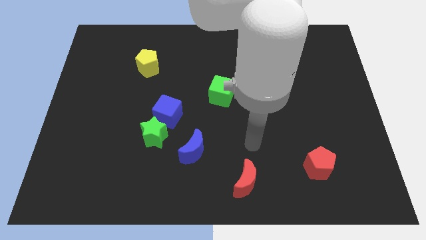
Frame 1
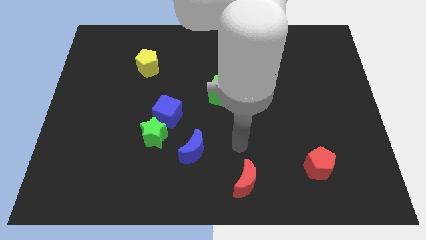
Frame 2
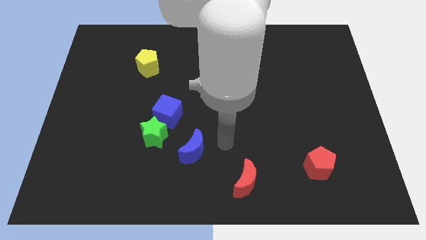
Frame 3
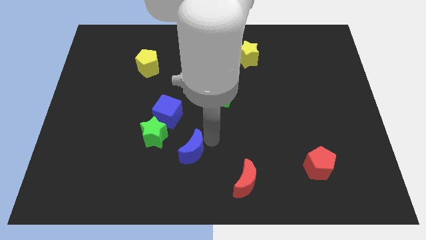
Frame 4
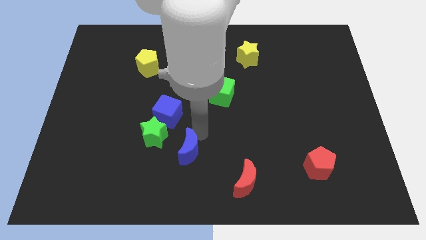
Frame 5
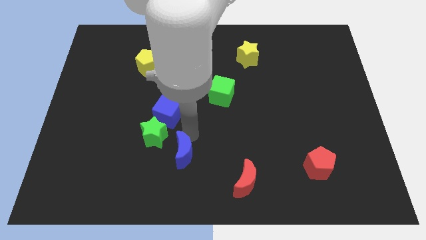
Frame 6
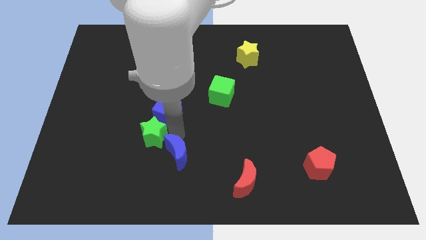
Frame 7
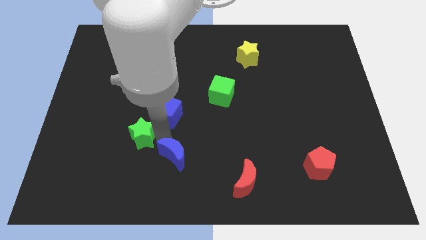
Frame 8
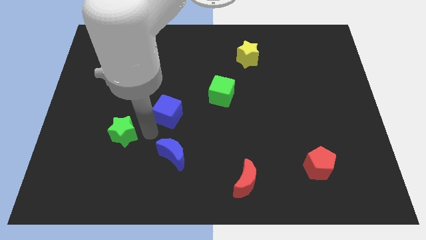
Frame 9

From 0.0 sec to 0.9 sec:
separate the blue cube from the green star

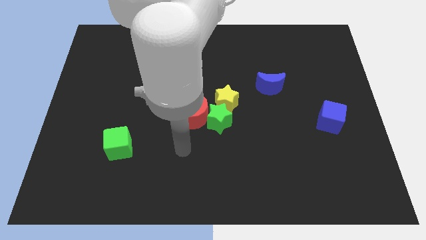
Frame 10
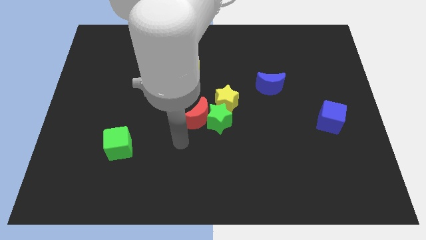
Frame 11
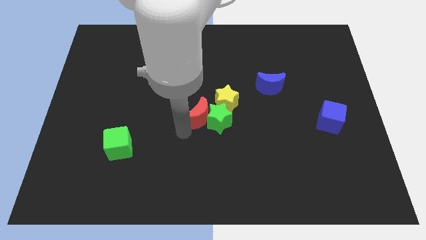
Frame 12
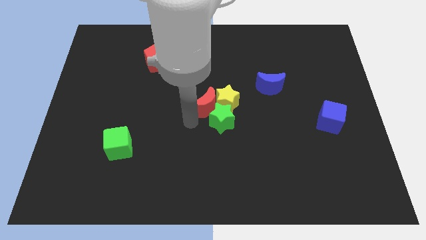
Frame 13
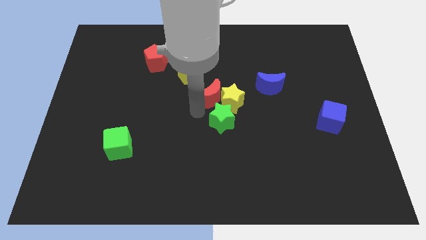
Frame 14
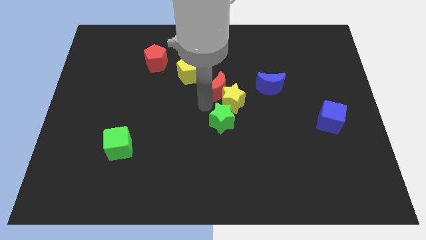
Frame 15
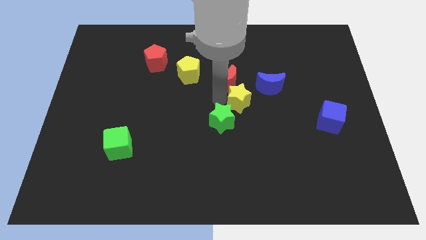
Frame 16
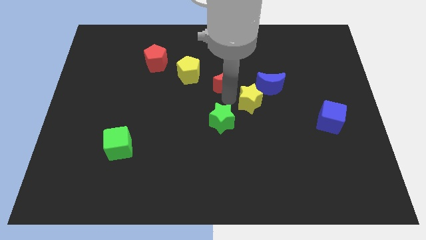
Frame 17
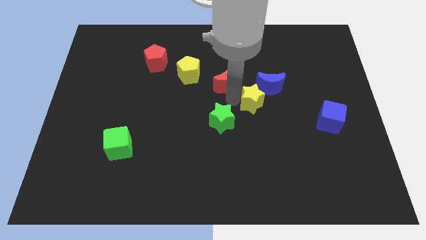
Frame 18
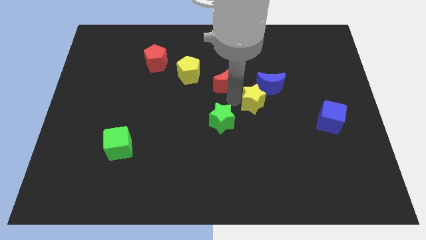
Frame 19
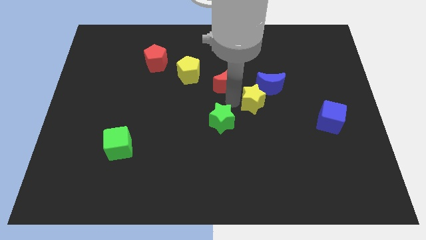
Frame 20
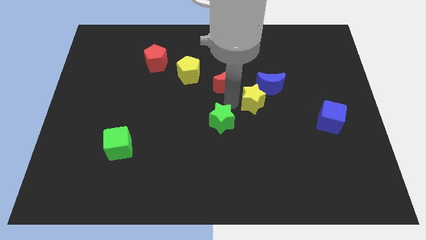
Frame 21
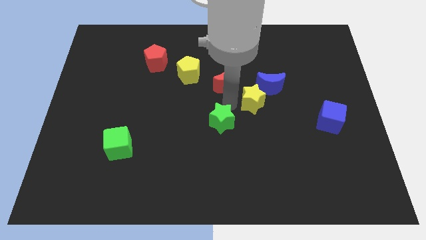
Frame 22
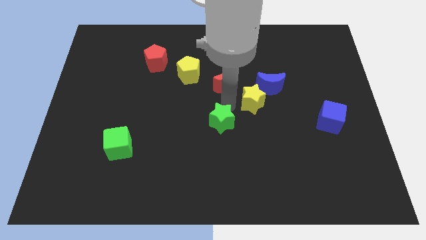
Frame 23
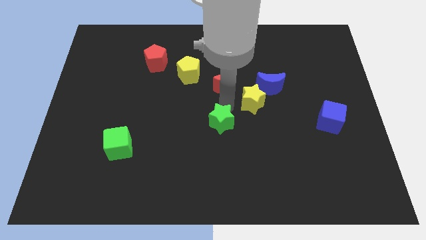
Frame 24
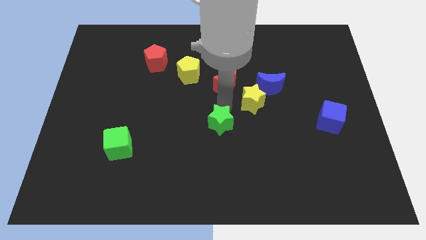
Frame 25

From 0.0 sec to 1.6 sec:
separate the green star from the red moon and yellow star

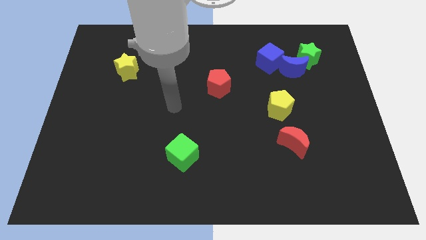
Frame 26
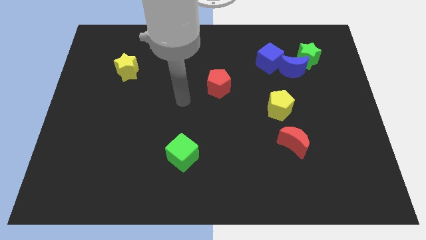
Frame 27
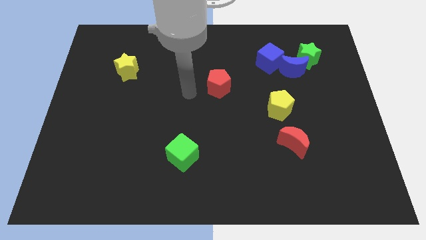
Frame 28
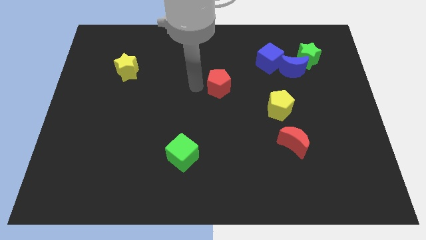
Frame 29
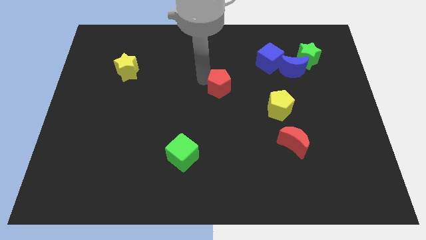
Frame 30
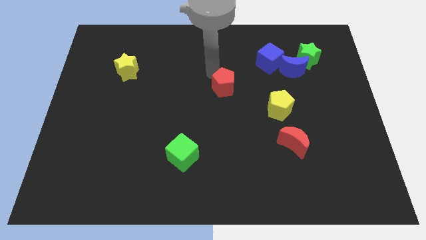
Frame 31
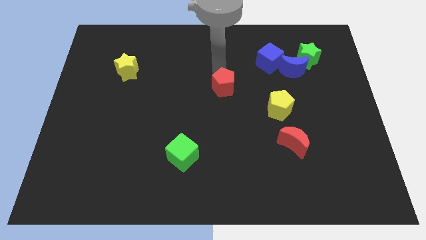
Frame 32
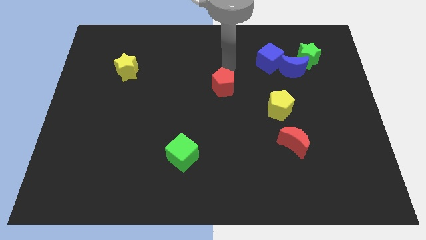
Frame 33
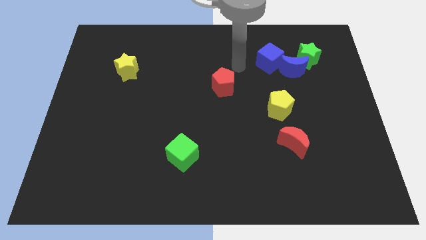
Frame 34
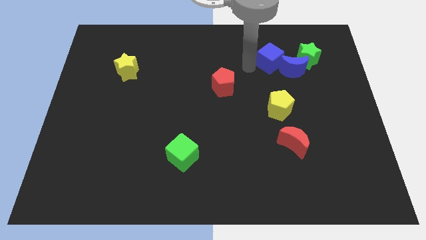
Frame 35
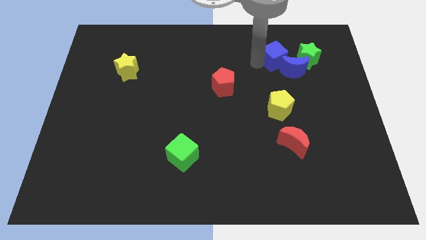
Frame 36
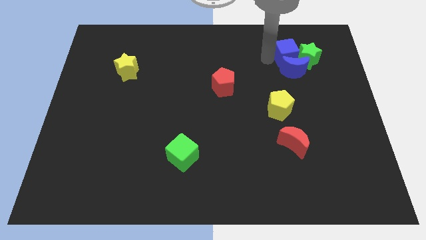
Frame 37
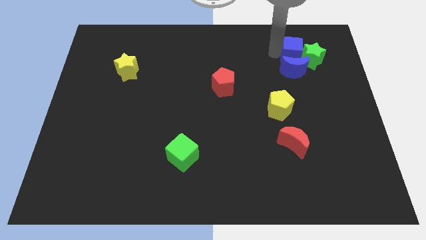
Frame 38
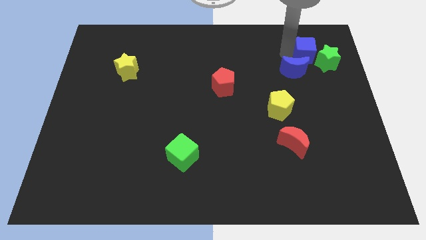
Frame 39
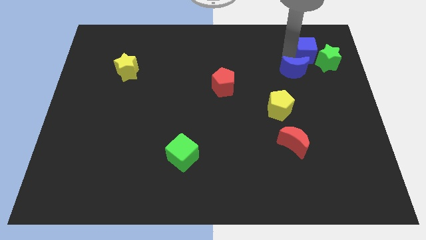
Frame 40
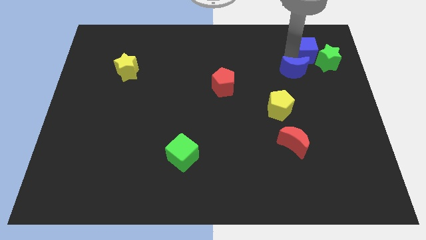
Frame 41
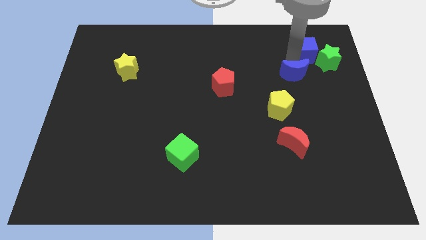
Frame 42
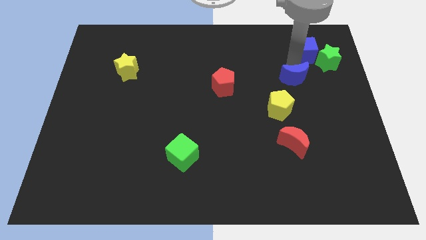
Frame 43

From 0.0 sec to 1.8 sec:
move the blue moon away from the green star and blue cube

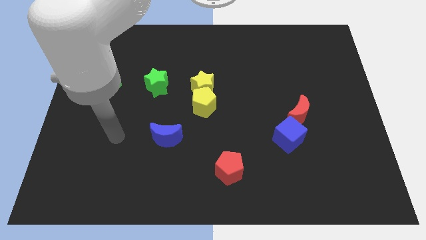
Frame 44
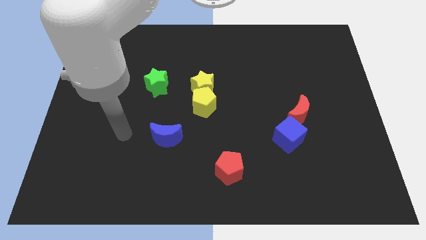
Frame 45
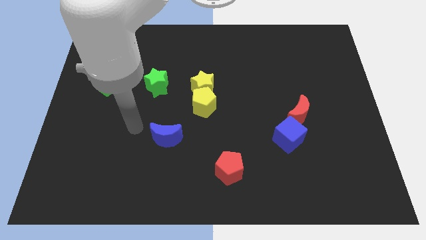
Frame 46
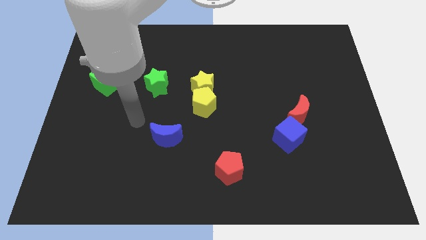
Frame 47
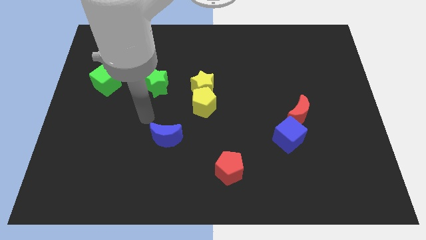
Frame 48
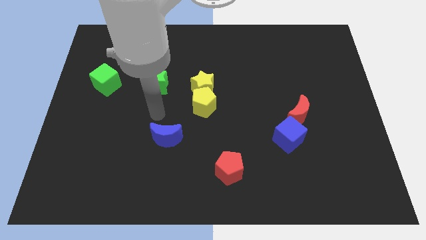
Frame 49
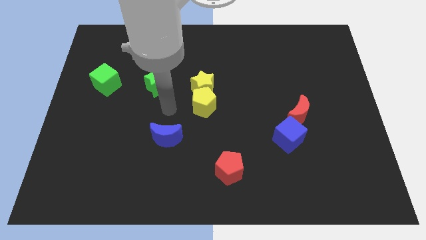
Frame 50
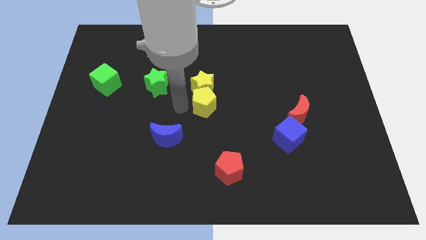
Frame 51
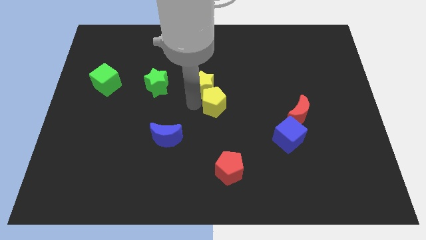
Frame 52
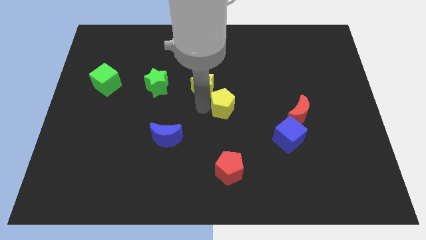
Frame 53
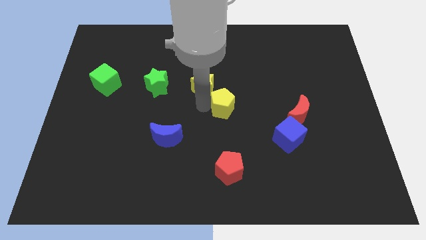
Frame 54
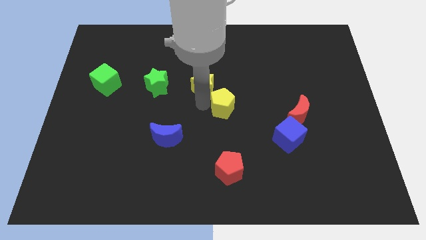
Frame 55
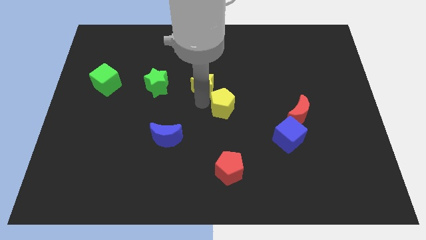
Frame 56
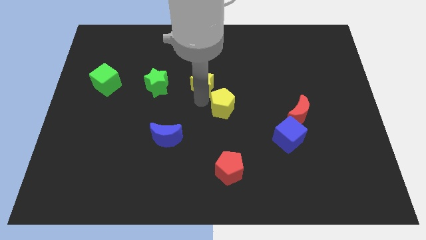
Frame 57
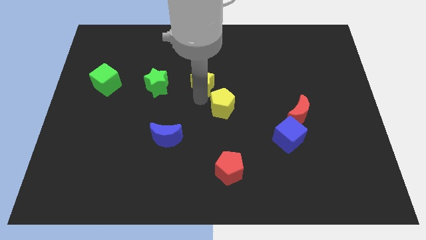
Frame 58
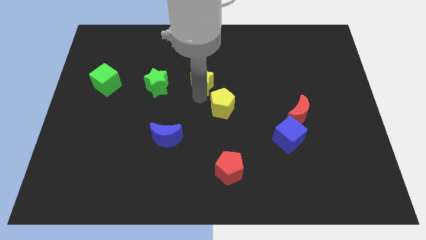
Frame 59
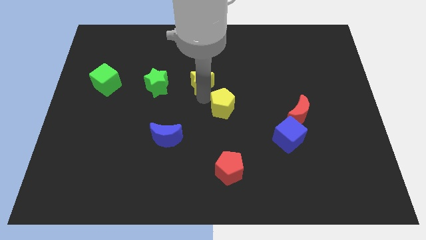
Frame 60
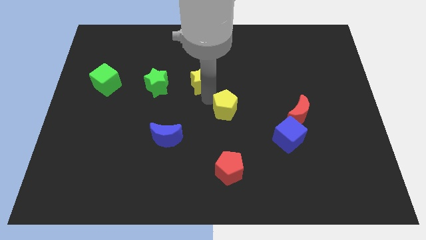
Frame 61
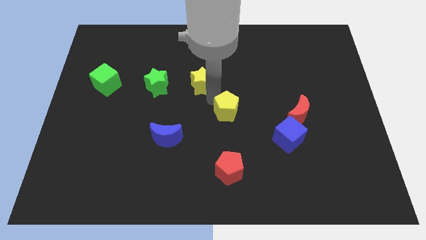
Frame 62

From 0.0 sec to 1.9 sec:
move the yellow star away from the yellow pentagon

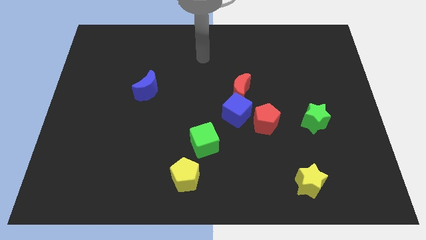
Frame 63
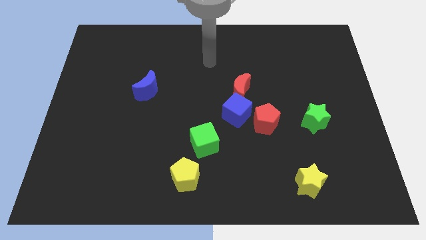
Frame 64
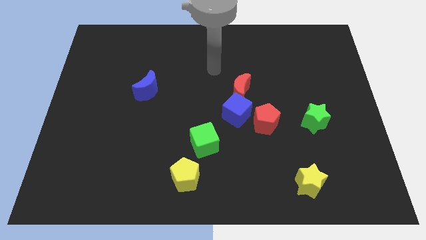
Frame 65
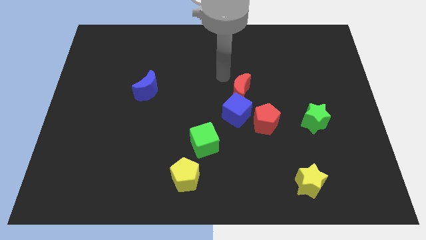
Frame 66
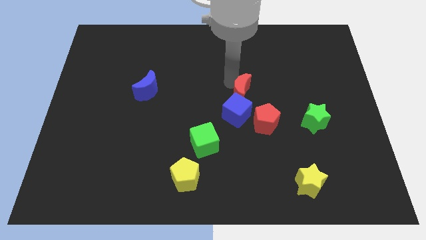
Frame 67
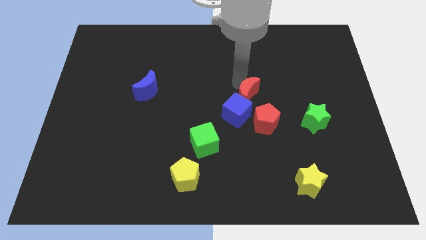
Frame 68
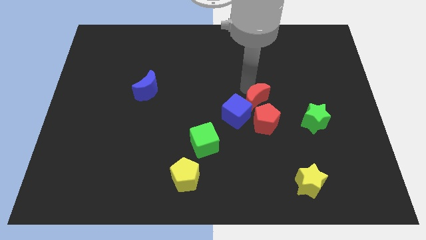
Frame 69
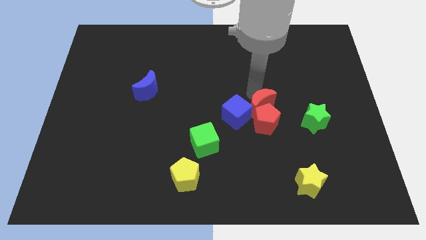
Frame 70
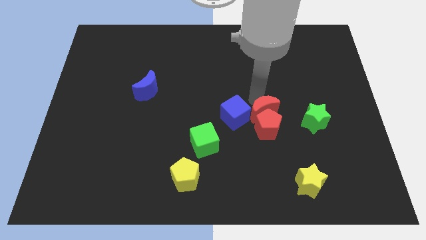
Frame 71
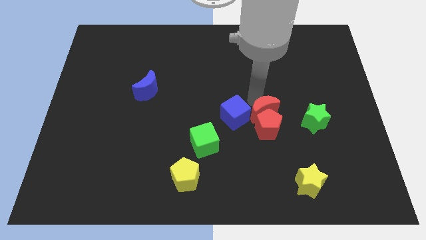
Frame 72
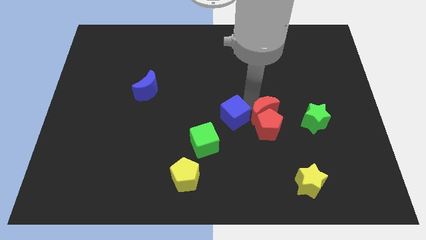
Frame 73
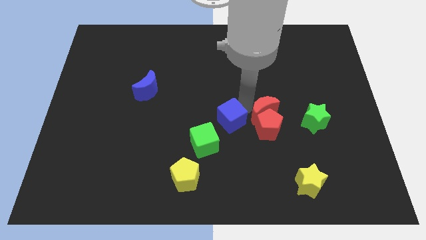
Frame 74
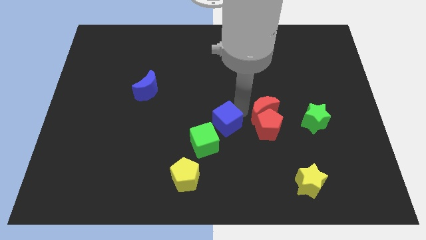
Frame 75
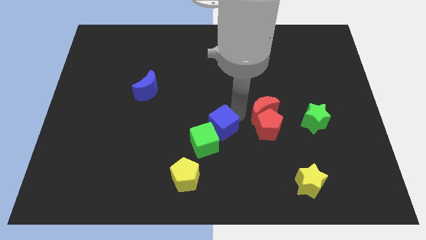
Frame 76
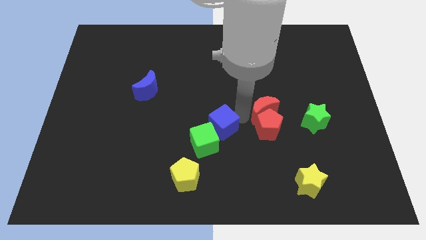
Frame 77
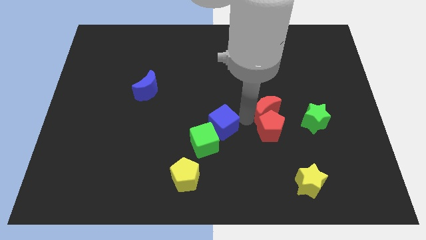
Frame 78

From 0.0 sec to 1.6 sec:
move the blue cube away from the red moon and red pentagon

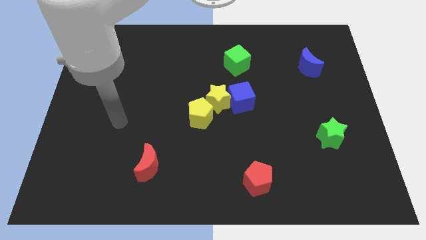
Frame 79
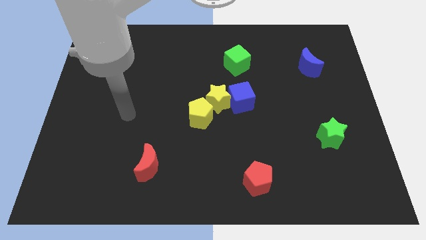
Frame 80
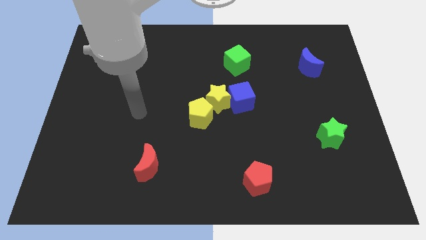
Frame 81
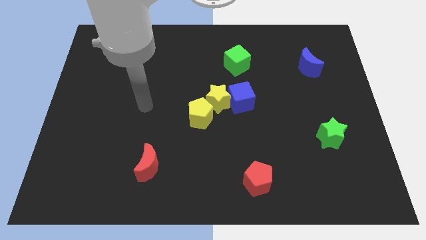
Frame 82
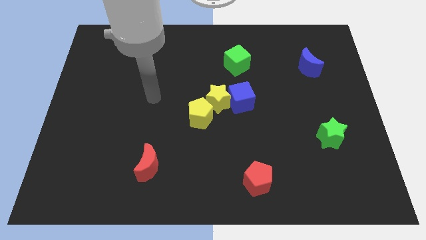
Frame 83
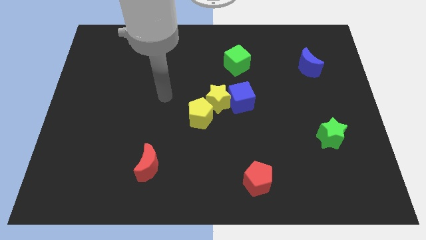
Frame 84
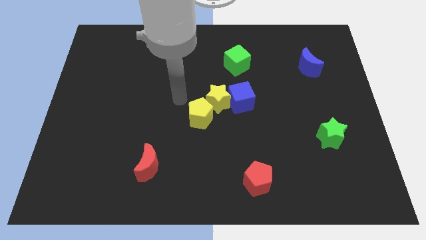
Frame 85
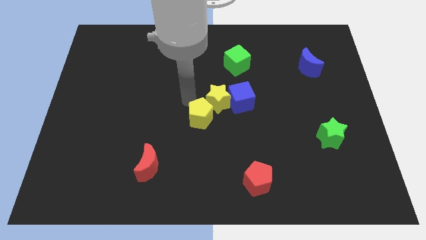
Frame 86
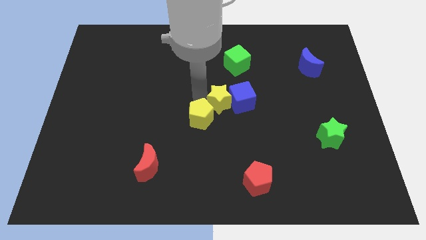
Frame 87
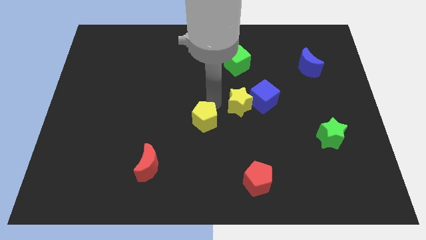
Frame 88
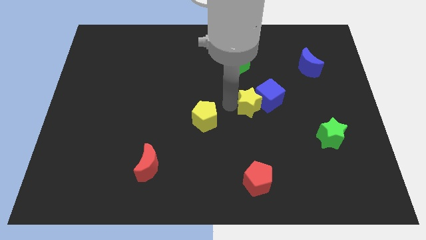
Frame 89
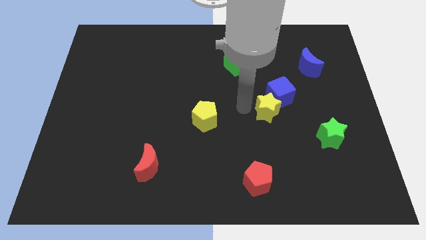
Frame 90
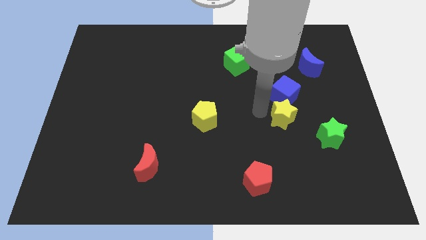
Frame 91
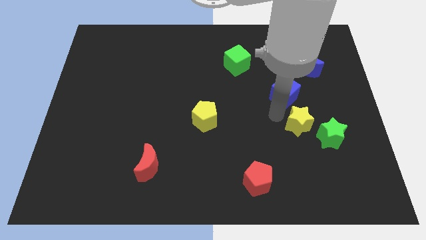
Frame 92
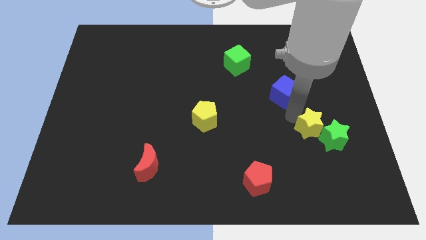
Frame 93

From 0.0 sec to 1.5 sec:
pull the blue cube apart from the yellow star
